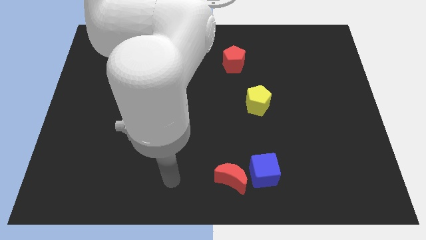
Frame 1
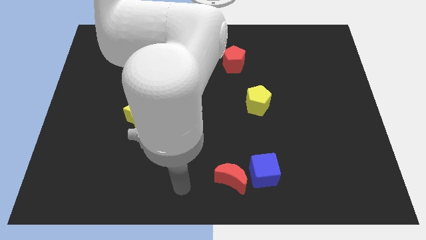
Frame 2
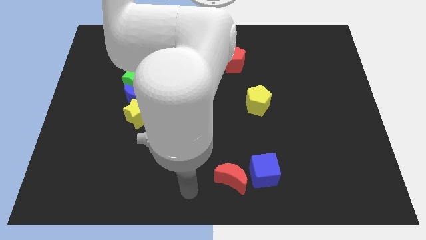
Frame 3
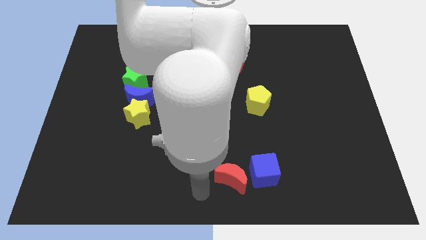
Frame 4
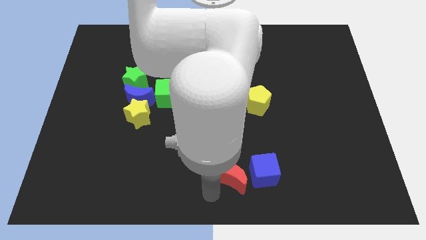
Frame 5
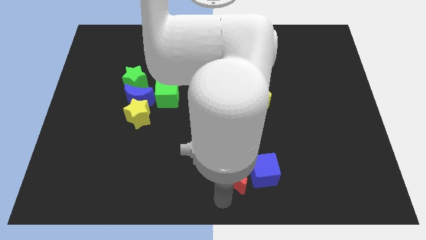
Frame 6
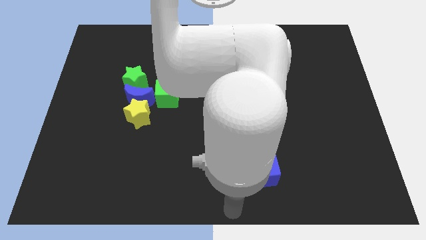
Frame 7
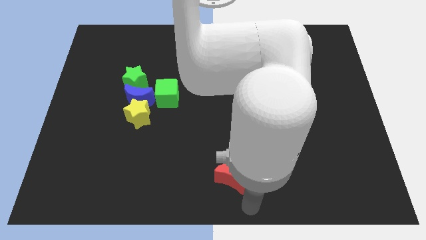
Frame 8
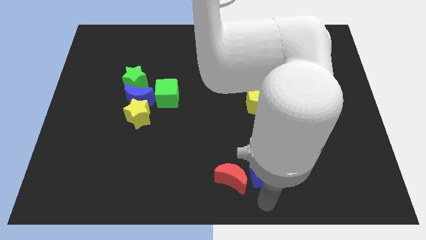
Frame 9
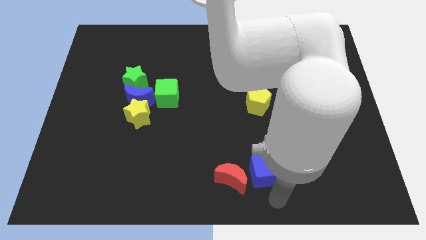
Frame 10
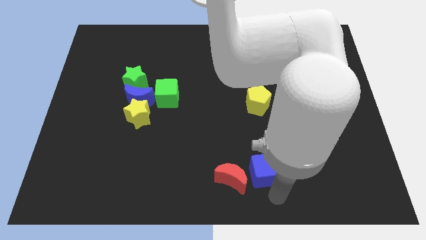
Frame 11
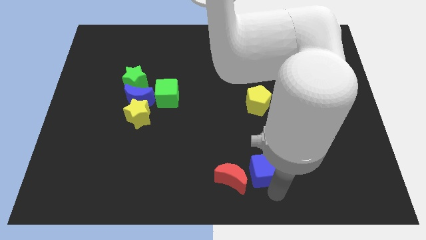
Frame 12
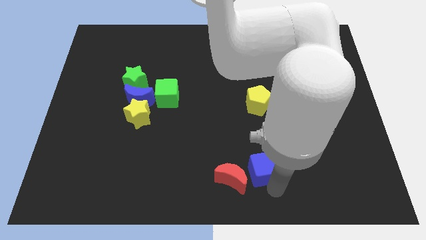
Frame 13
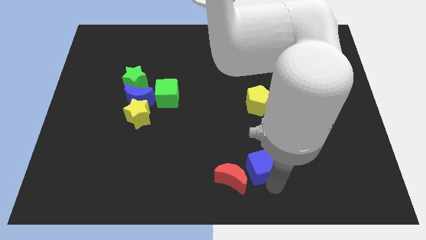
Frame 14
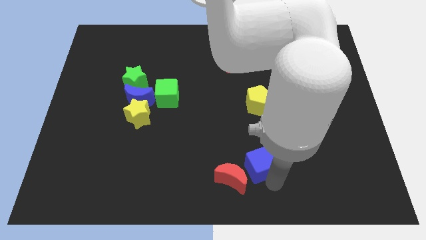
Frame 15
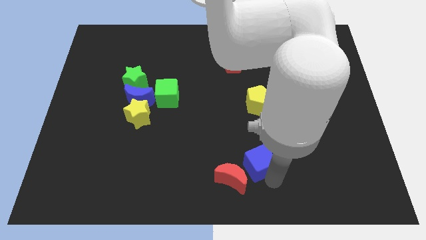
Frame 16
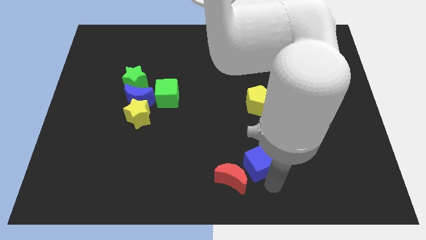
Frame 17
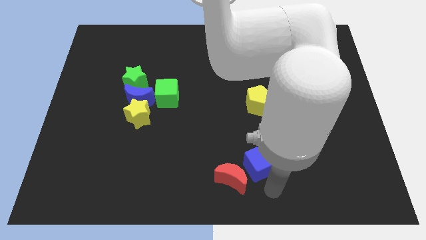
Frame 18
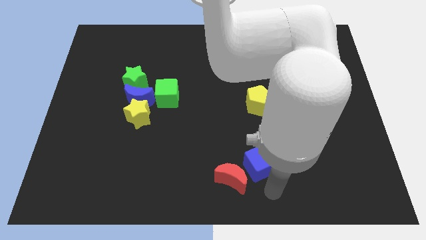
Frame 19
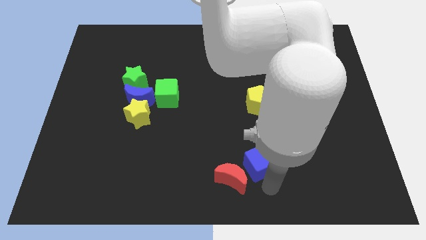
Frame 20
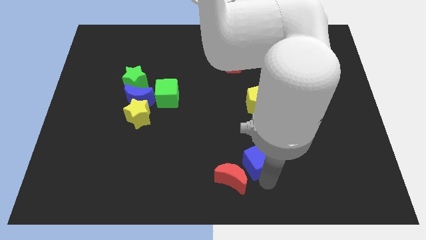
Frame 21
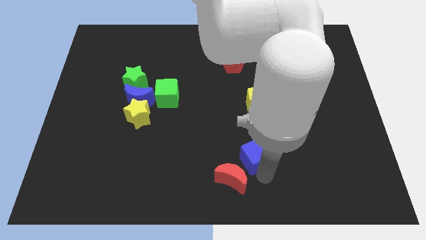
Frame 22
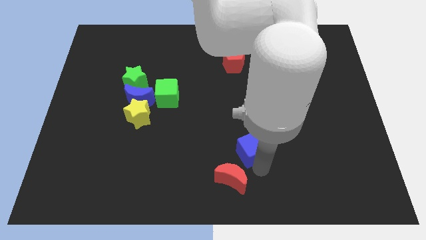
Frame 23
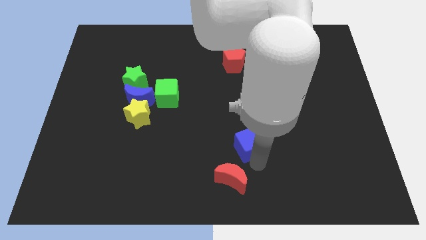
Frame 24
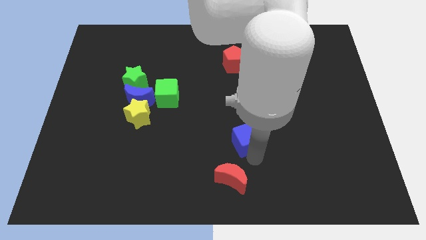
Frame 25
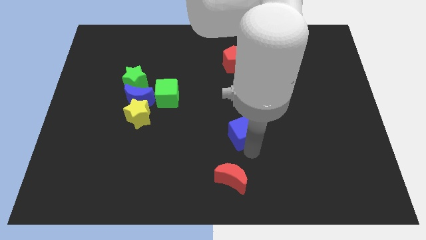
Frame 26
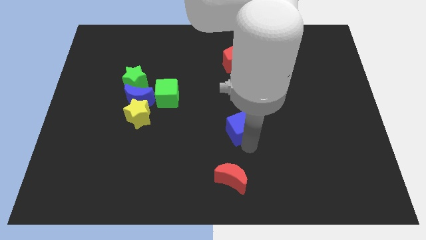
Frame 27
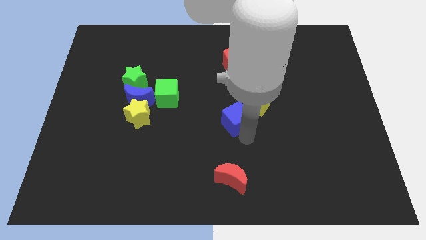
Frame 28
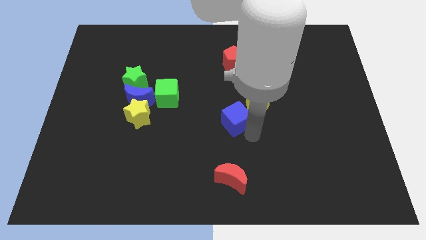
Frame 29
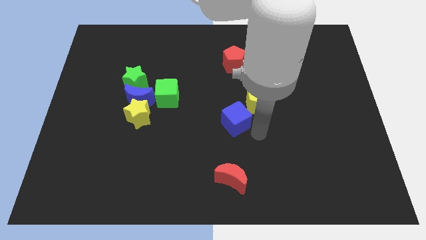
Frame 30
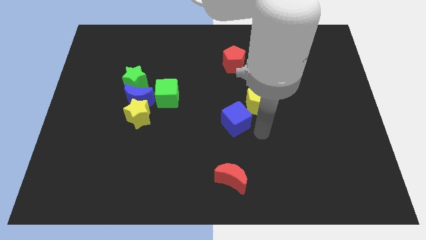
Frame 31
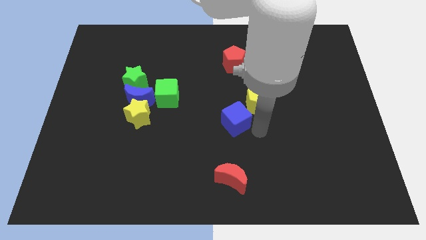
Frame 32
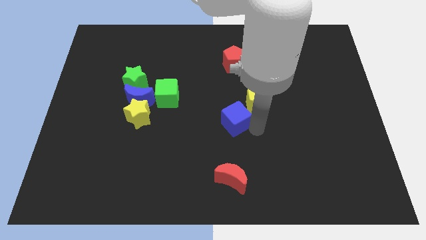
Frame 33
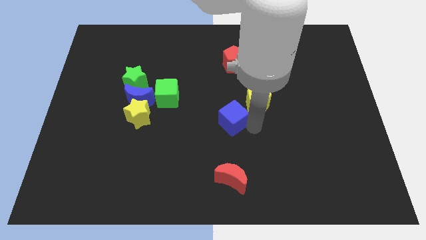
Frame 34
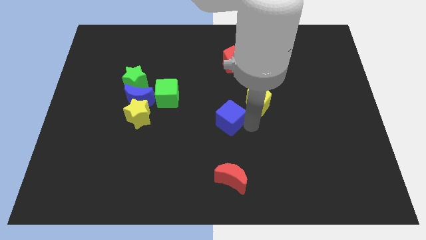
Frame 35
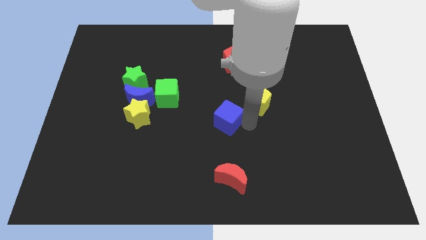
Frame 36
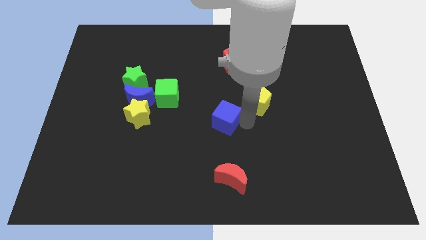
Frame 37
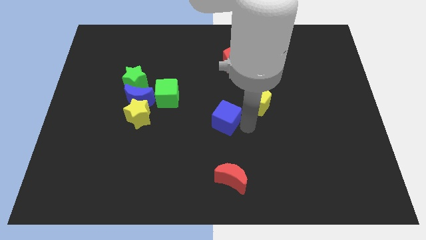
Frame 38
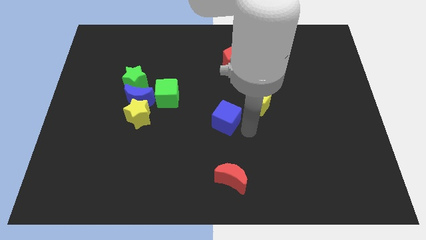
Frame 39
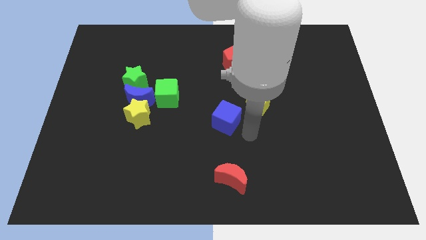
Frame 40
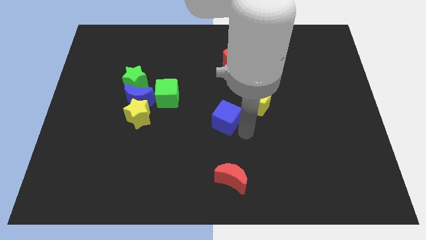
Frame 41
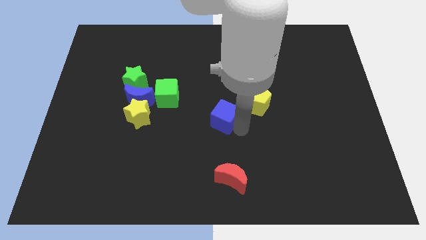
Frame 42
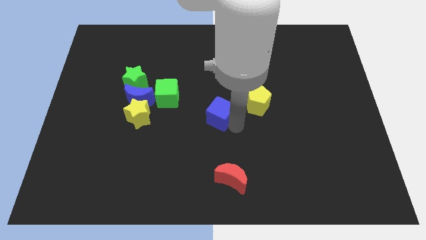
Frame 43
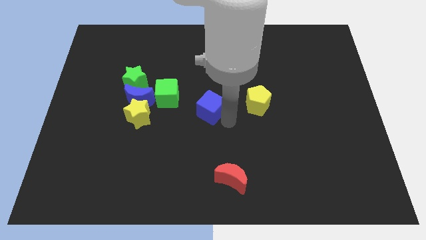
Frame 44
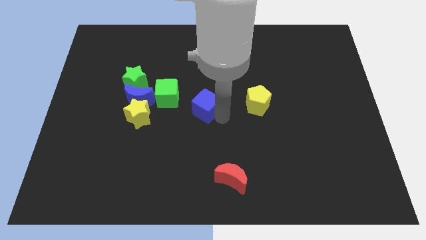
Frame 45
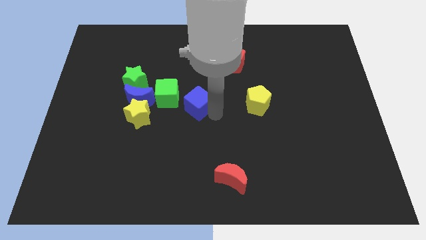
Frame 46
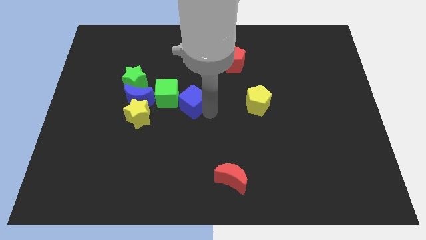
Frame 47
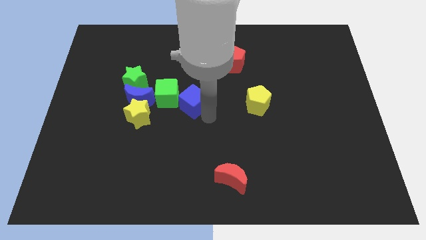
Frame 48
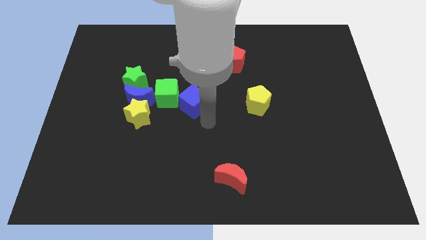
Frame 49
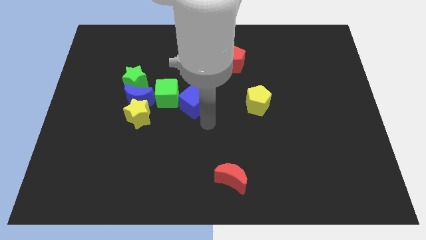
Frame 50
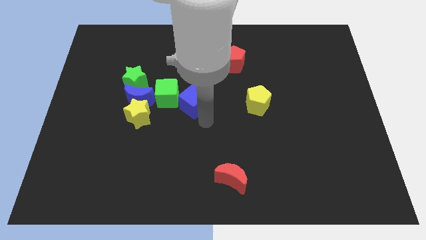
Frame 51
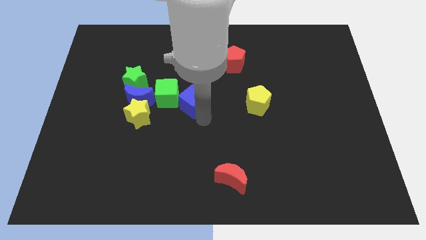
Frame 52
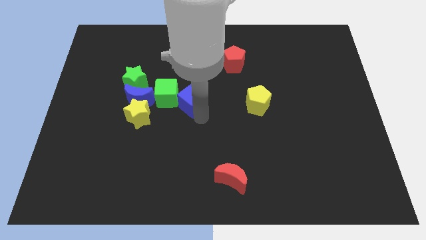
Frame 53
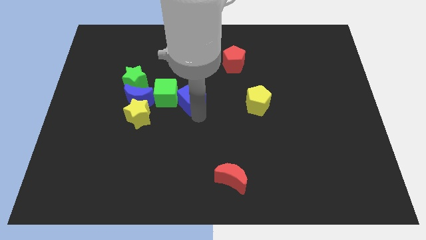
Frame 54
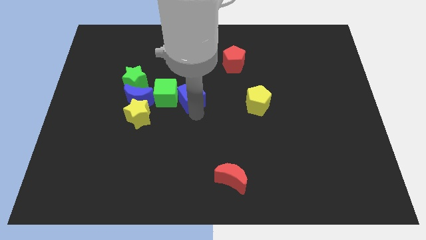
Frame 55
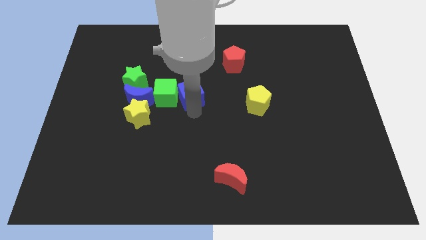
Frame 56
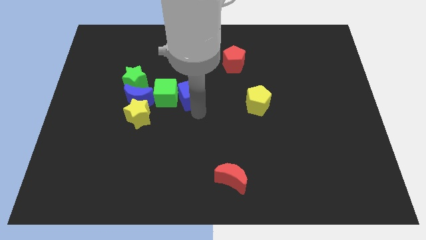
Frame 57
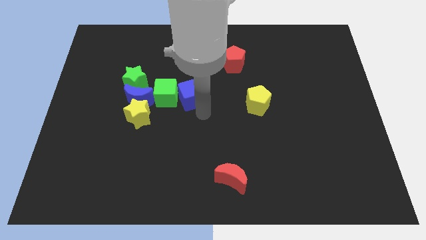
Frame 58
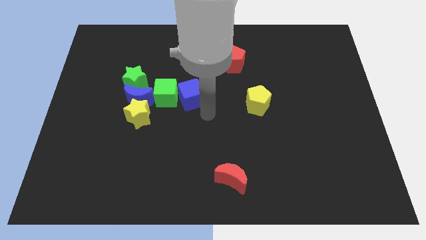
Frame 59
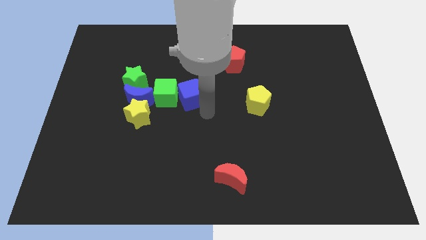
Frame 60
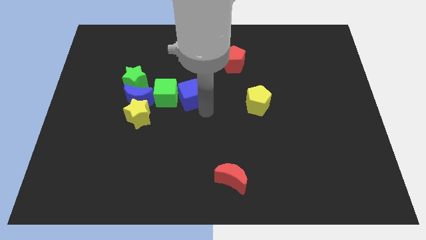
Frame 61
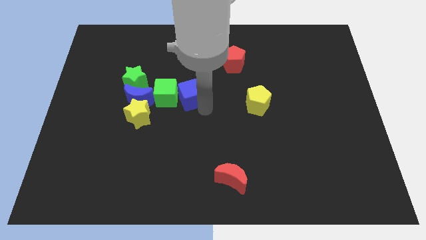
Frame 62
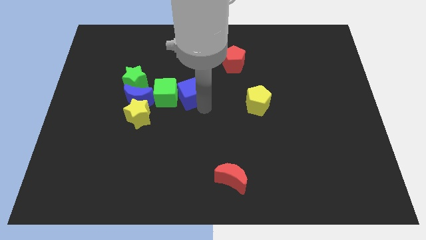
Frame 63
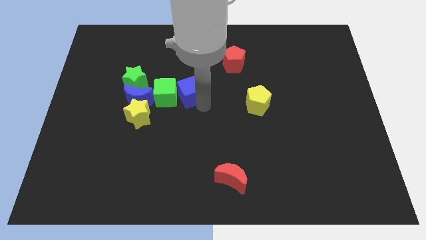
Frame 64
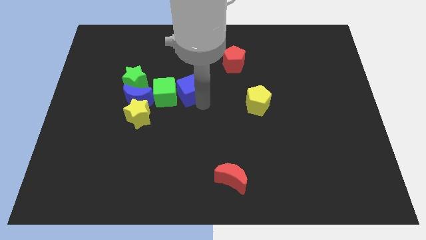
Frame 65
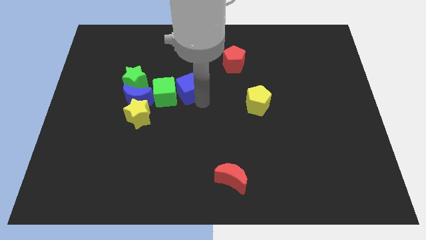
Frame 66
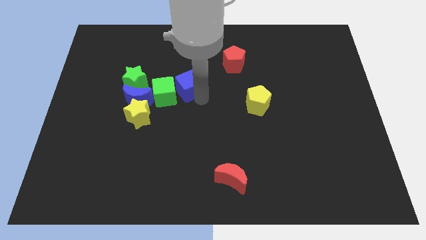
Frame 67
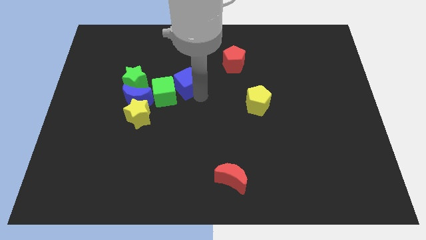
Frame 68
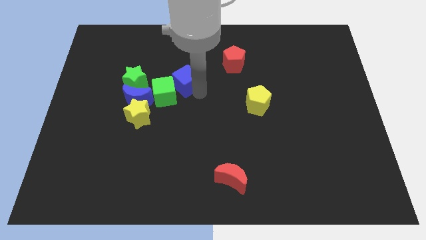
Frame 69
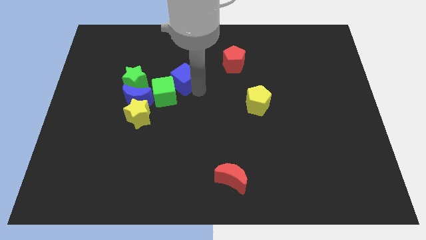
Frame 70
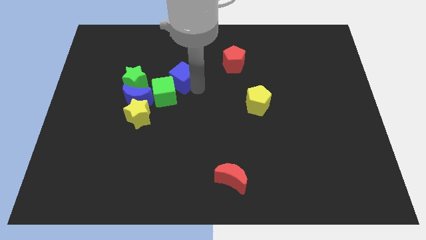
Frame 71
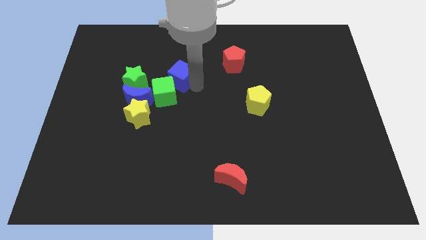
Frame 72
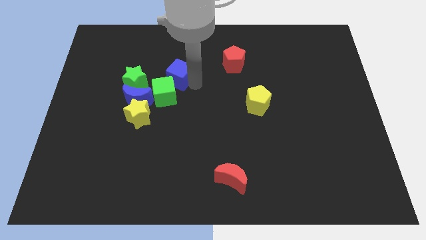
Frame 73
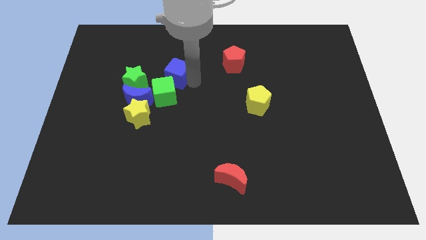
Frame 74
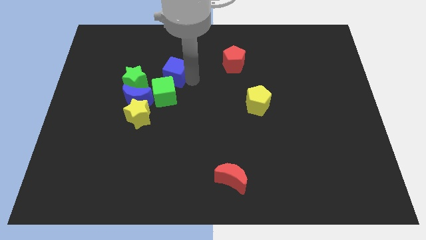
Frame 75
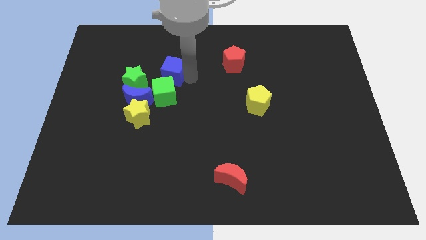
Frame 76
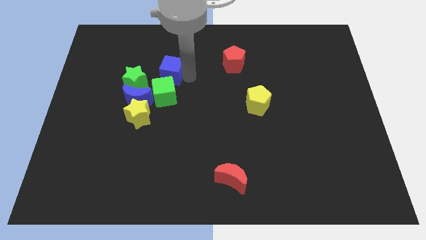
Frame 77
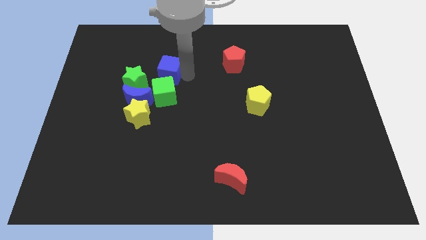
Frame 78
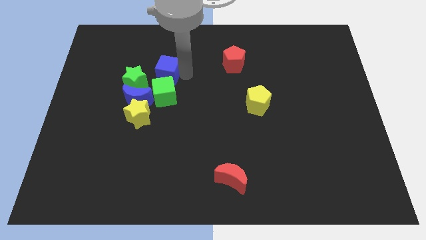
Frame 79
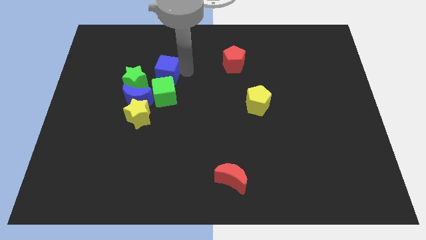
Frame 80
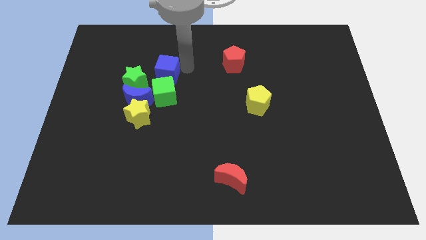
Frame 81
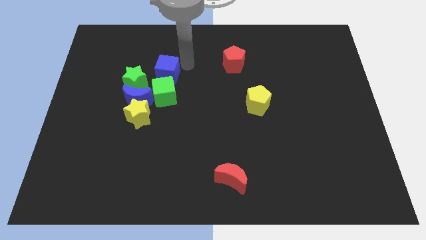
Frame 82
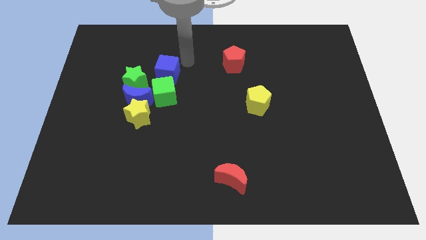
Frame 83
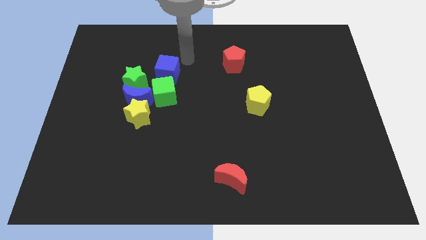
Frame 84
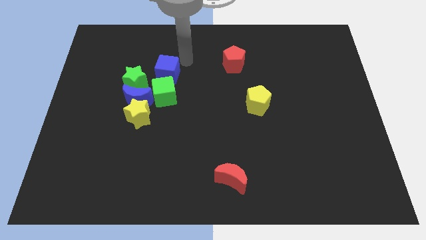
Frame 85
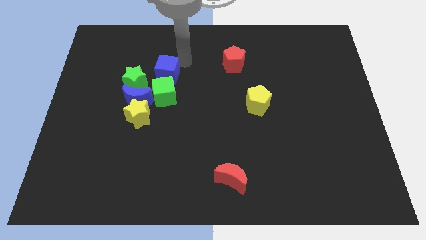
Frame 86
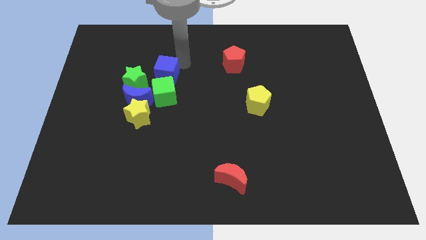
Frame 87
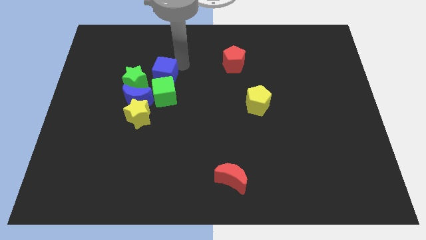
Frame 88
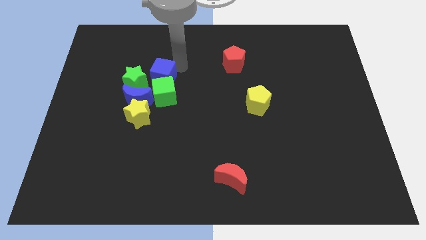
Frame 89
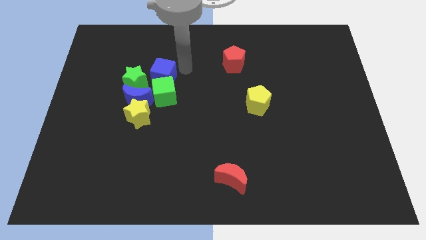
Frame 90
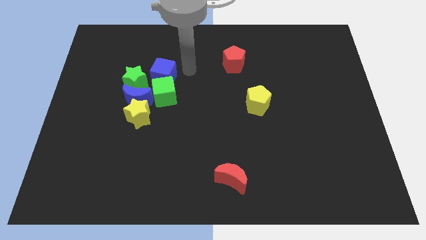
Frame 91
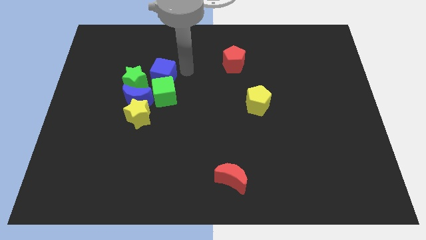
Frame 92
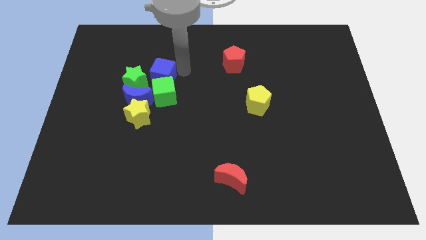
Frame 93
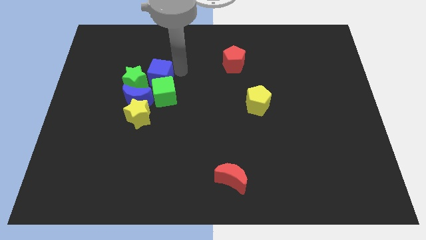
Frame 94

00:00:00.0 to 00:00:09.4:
move the blue cube towards the green star
